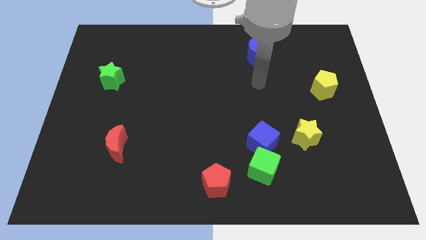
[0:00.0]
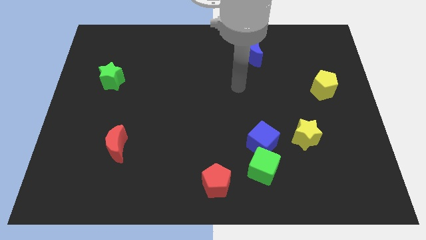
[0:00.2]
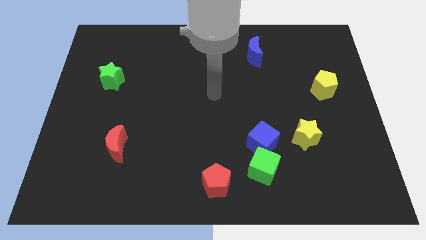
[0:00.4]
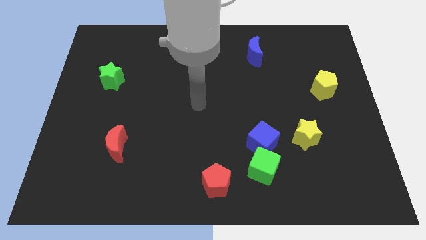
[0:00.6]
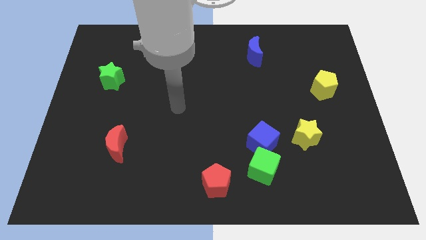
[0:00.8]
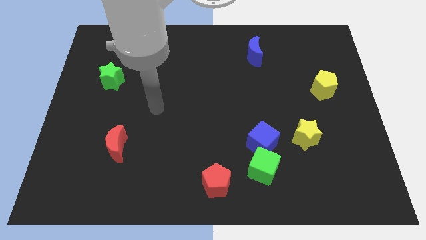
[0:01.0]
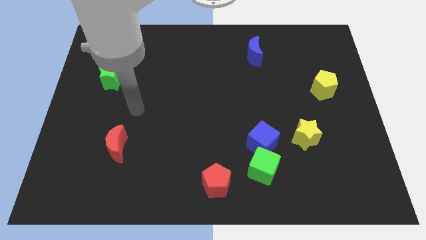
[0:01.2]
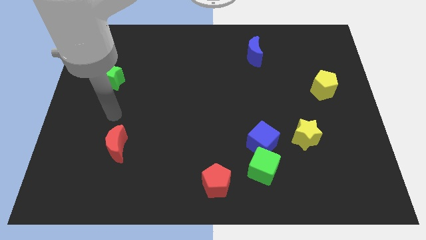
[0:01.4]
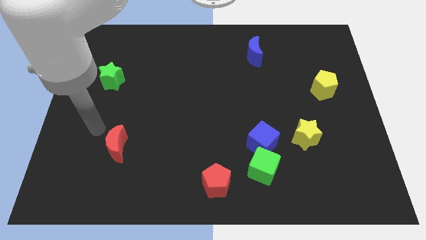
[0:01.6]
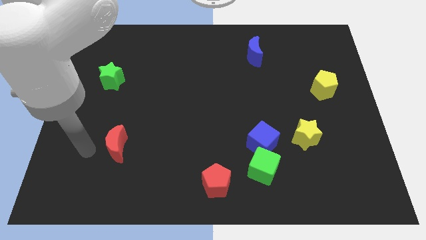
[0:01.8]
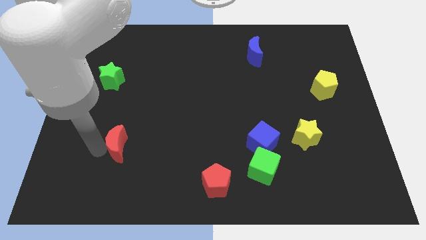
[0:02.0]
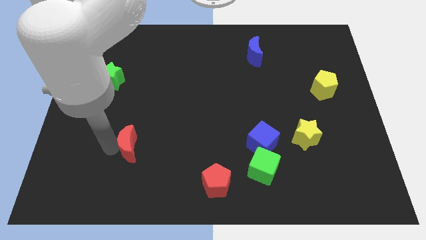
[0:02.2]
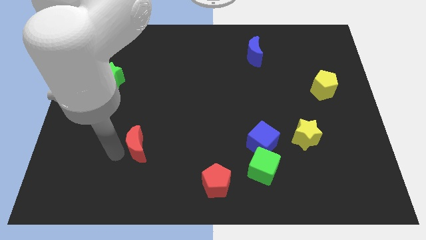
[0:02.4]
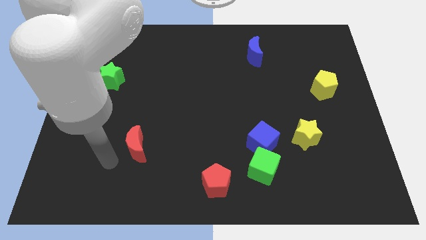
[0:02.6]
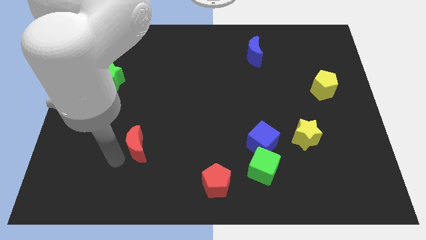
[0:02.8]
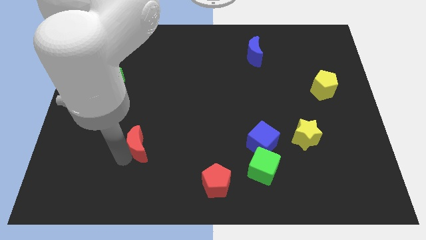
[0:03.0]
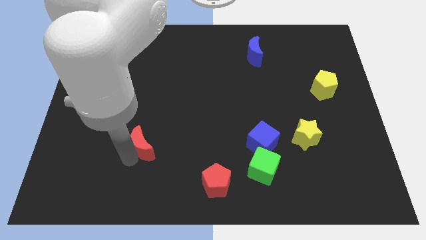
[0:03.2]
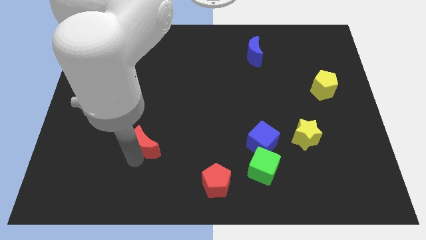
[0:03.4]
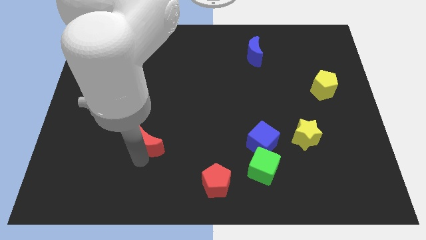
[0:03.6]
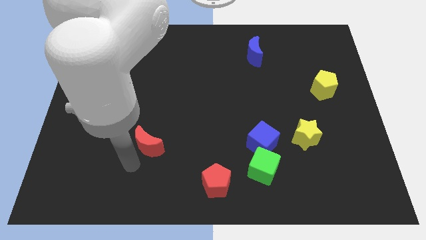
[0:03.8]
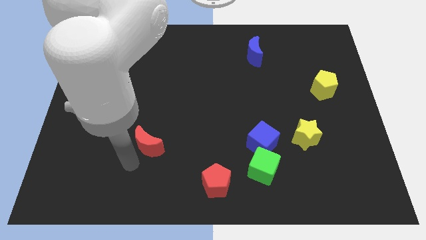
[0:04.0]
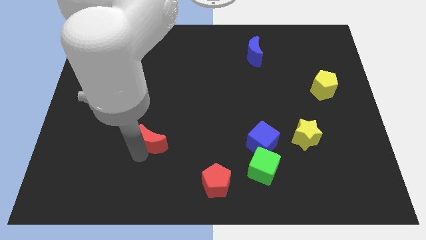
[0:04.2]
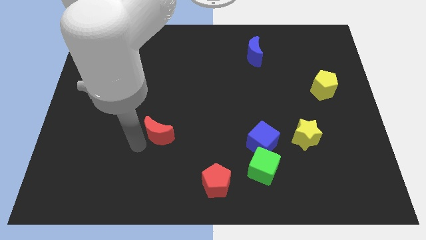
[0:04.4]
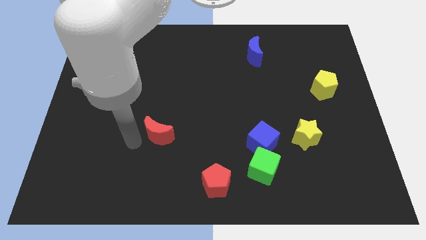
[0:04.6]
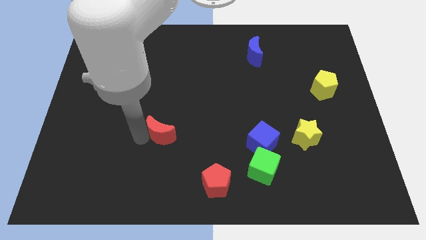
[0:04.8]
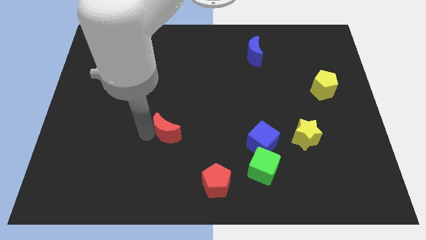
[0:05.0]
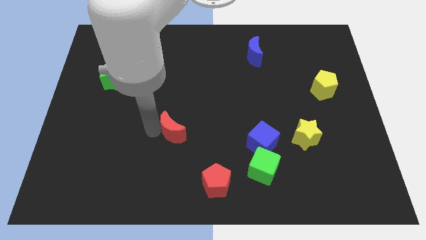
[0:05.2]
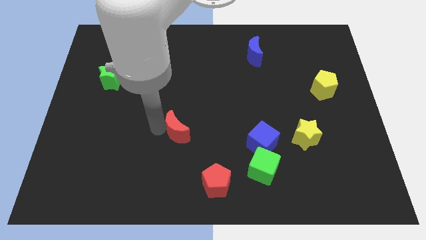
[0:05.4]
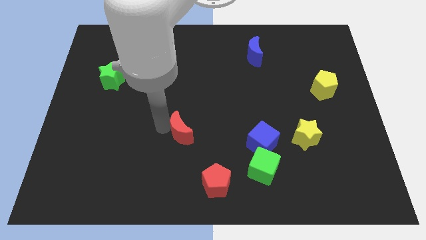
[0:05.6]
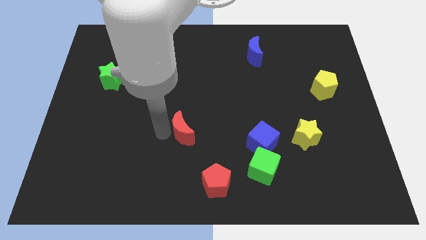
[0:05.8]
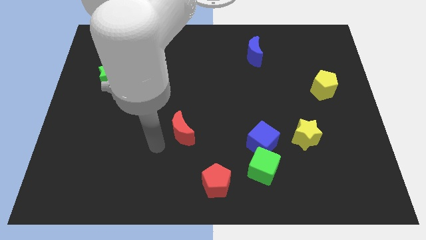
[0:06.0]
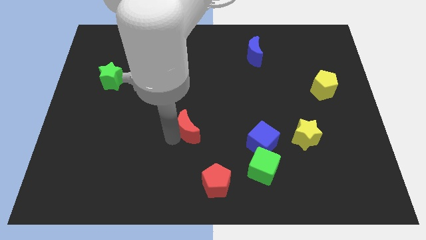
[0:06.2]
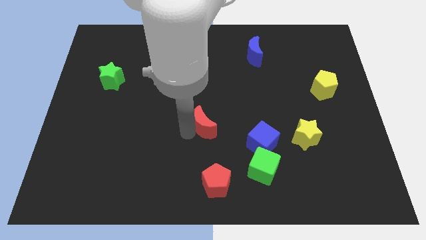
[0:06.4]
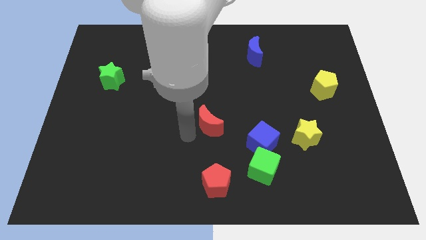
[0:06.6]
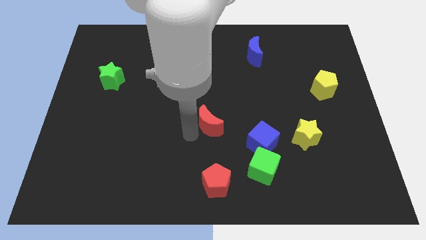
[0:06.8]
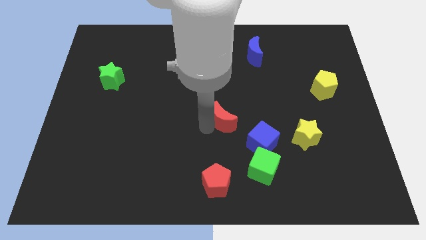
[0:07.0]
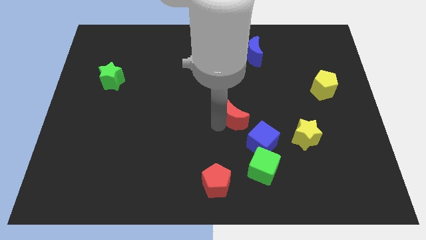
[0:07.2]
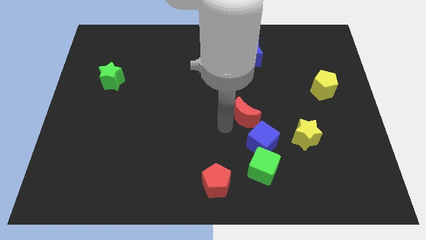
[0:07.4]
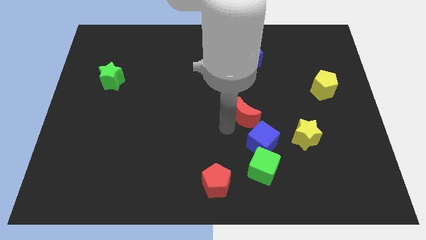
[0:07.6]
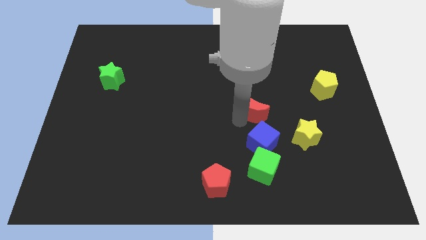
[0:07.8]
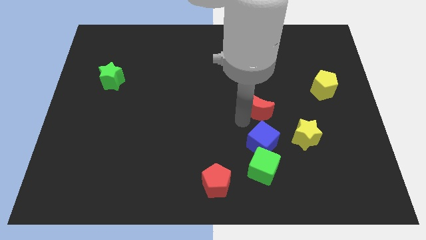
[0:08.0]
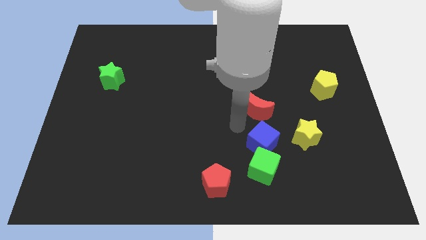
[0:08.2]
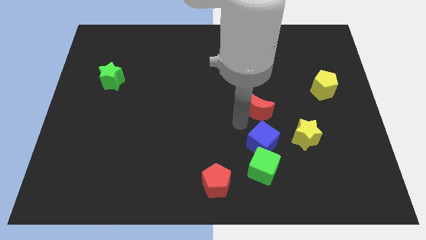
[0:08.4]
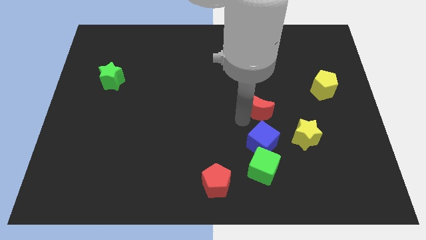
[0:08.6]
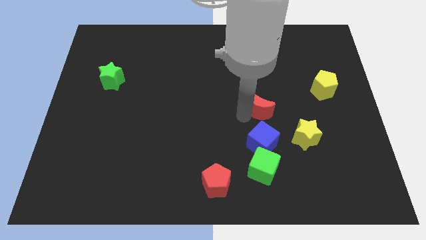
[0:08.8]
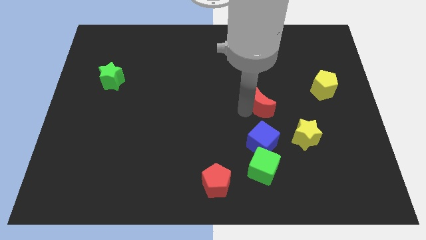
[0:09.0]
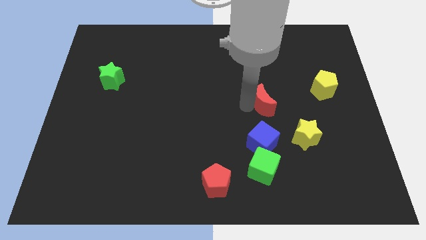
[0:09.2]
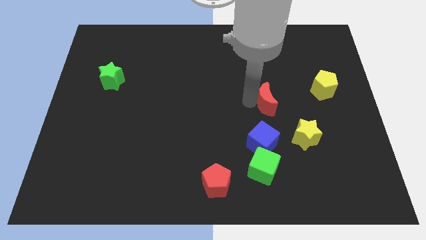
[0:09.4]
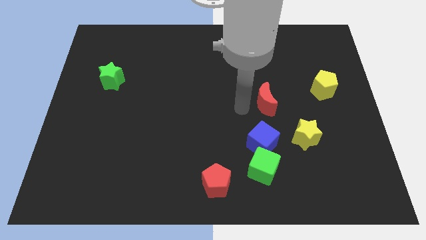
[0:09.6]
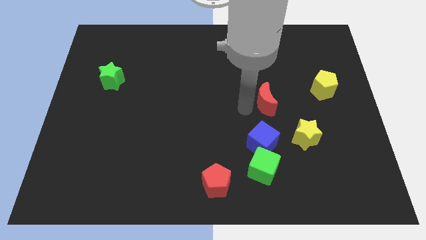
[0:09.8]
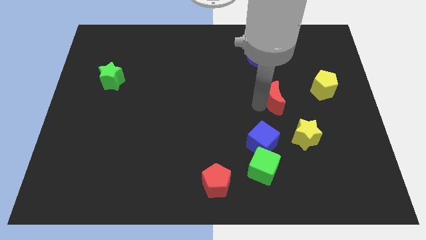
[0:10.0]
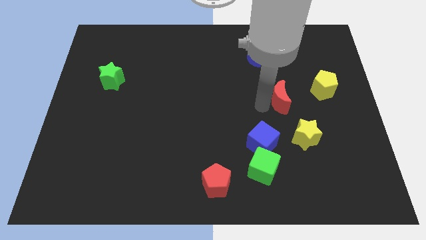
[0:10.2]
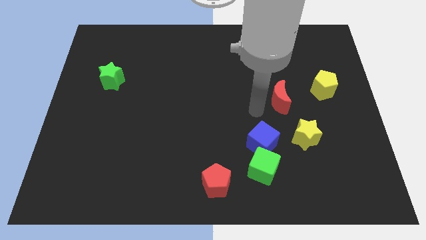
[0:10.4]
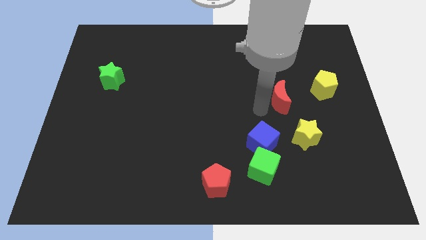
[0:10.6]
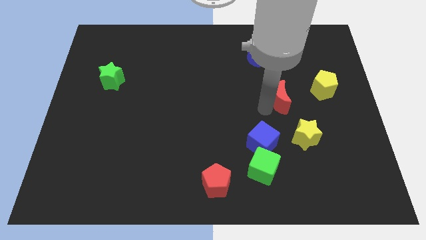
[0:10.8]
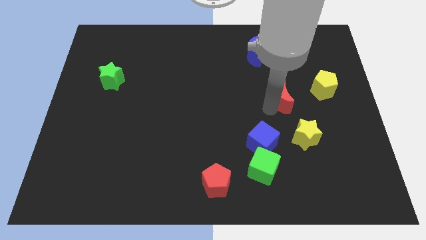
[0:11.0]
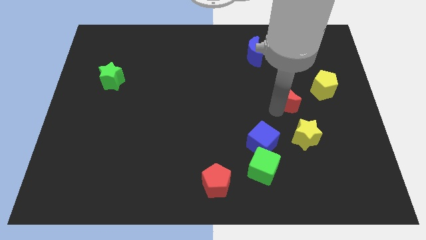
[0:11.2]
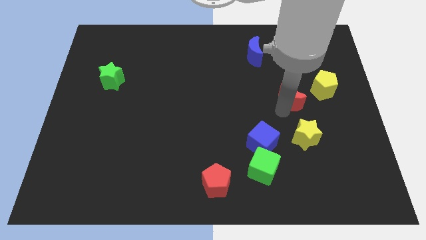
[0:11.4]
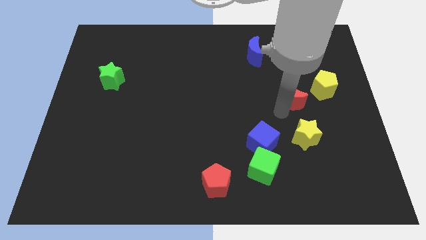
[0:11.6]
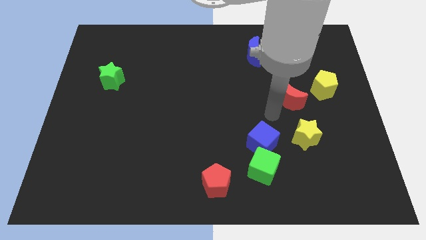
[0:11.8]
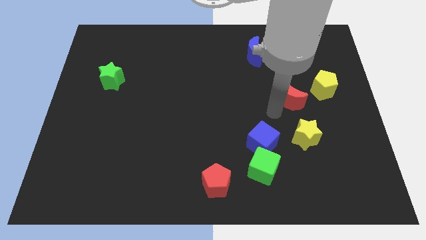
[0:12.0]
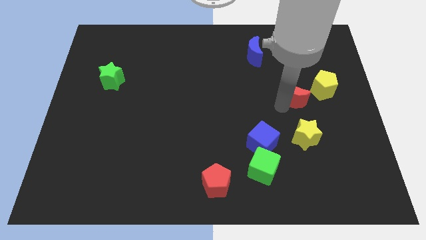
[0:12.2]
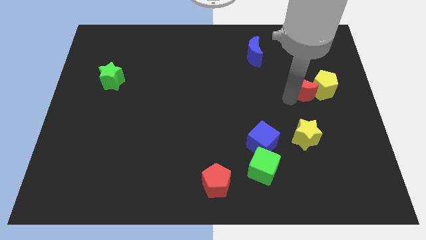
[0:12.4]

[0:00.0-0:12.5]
put the red moon to the yellow pentagon
